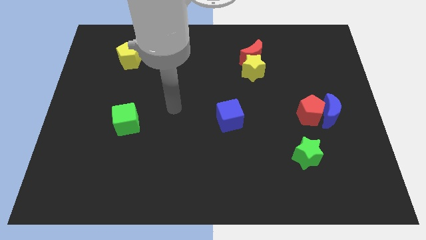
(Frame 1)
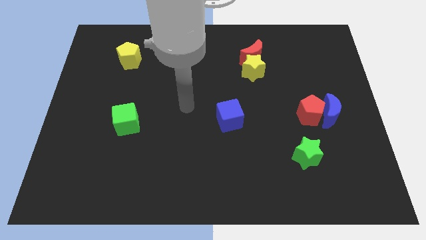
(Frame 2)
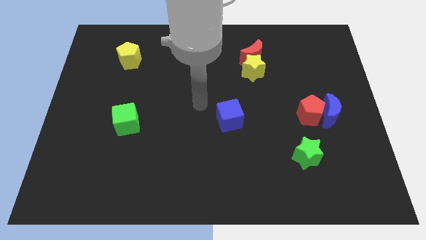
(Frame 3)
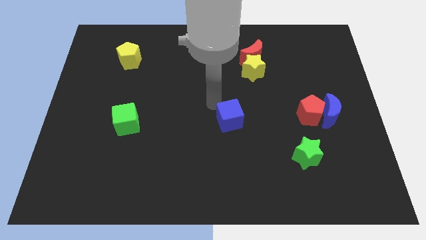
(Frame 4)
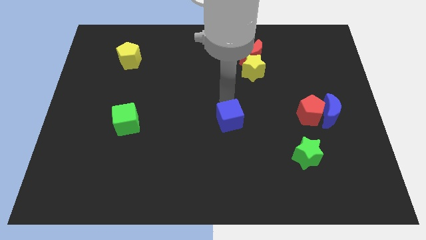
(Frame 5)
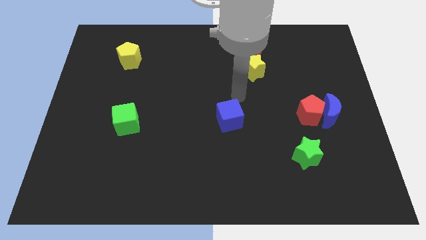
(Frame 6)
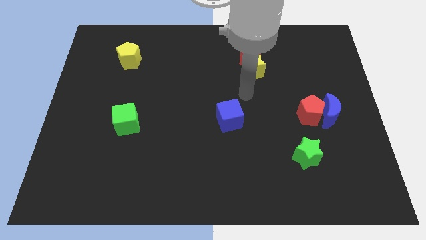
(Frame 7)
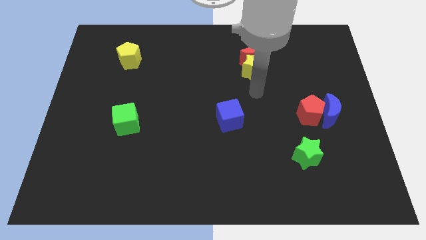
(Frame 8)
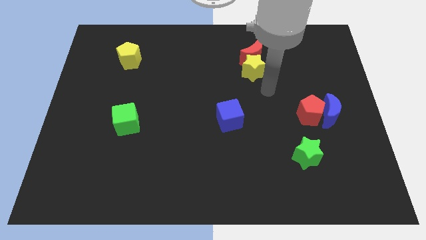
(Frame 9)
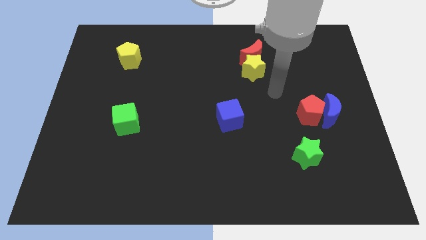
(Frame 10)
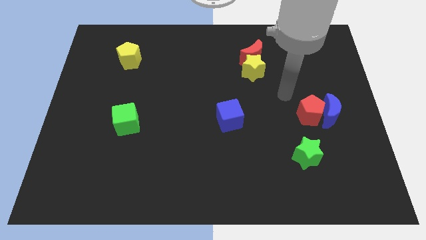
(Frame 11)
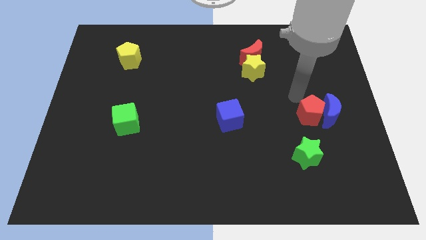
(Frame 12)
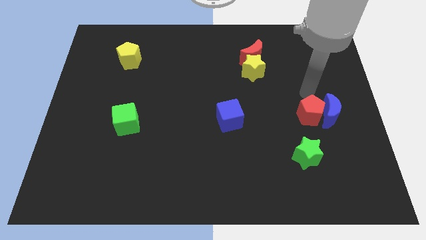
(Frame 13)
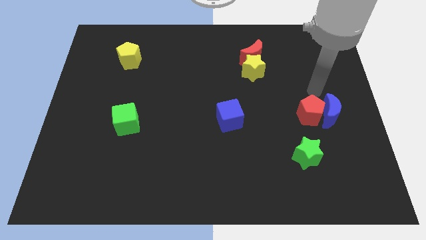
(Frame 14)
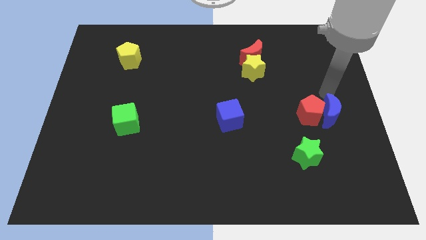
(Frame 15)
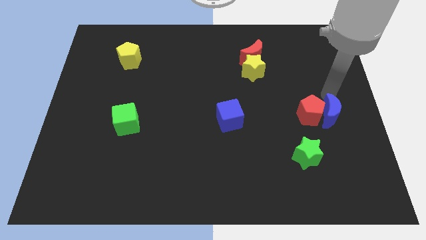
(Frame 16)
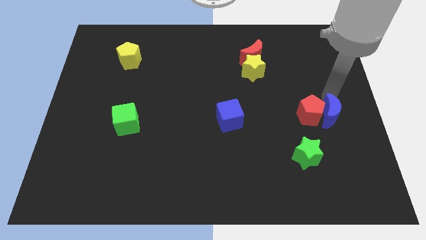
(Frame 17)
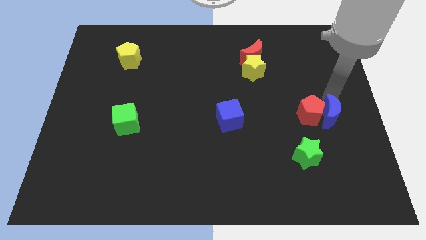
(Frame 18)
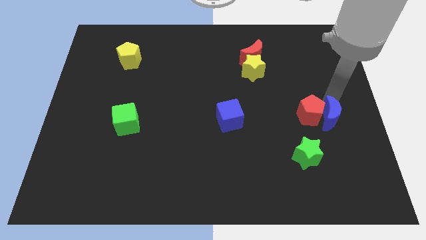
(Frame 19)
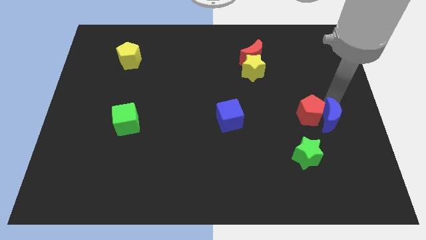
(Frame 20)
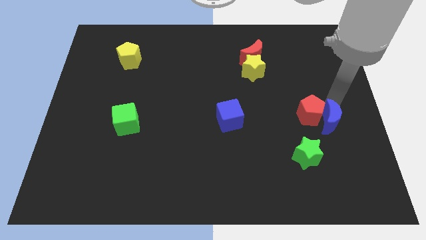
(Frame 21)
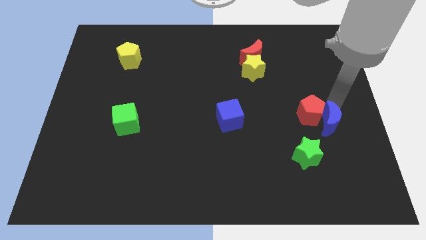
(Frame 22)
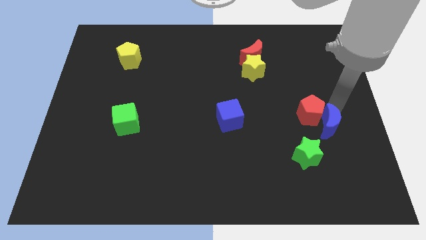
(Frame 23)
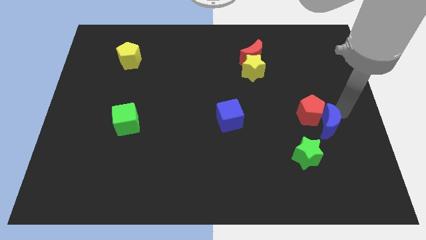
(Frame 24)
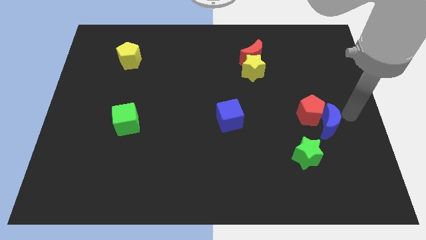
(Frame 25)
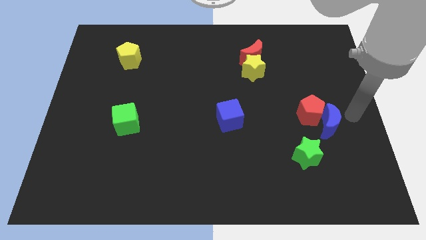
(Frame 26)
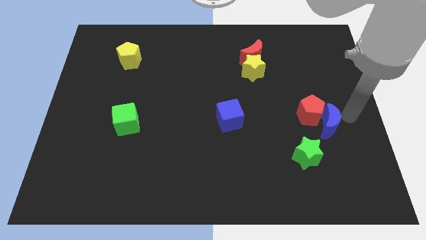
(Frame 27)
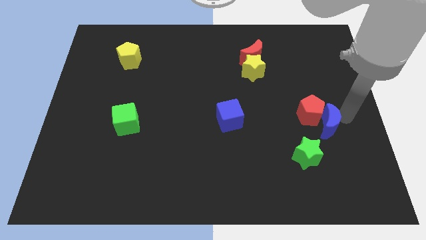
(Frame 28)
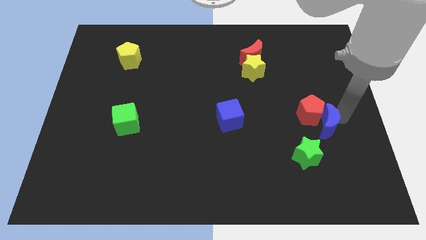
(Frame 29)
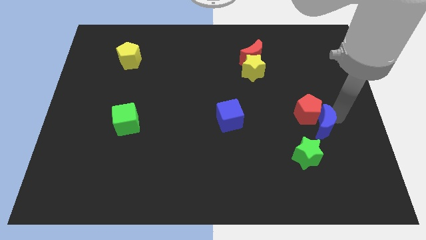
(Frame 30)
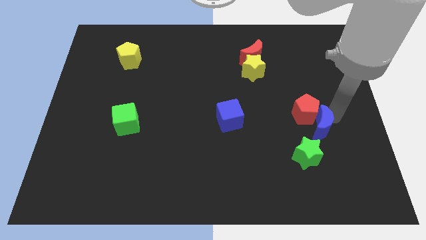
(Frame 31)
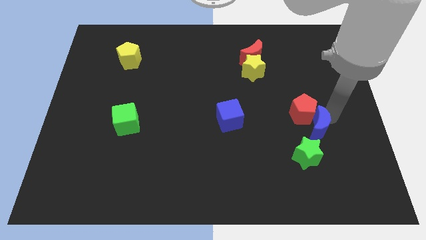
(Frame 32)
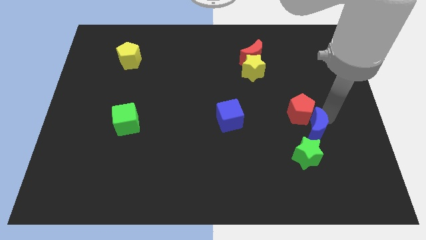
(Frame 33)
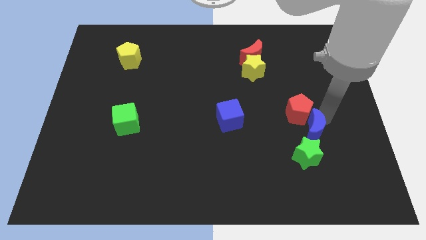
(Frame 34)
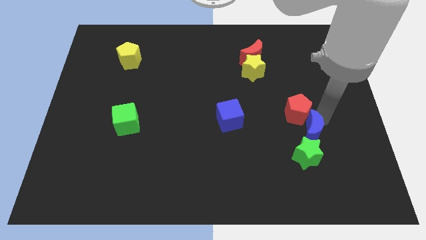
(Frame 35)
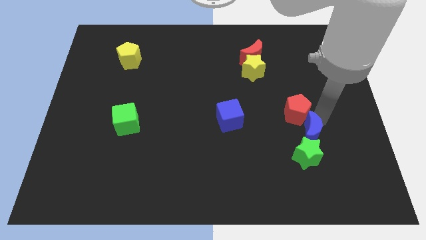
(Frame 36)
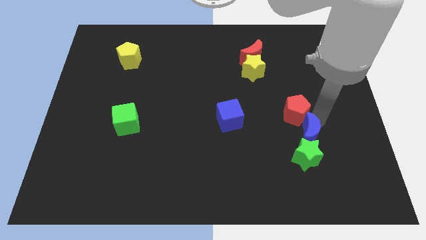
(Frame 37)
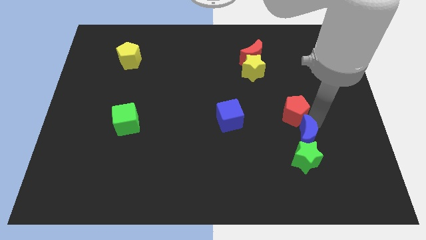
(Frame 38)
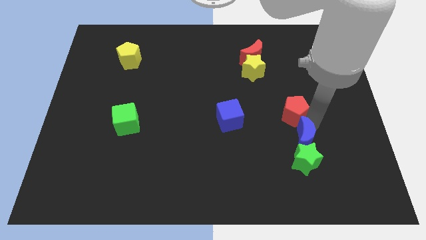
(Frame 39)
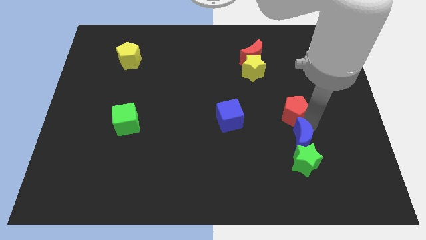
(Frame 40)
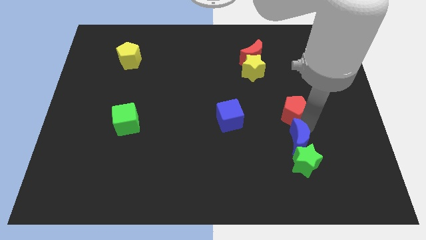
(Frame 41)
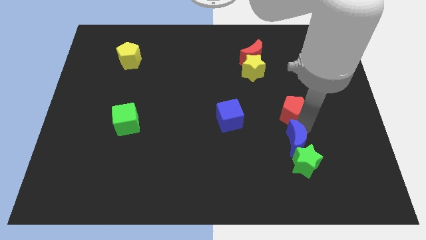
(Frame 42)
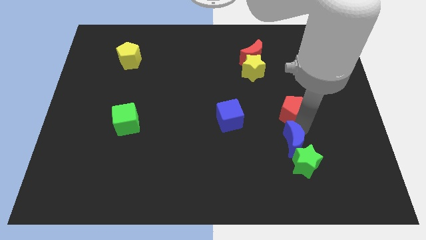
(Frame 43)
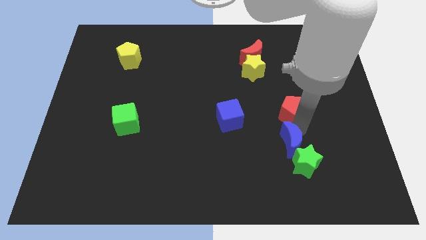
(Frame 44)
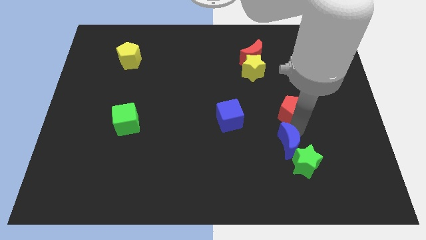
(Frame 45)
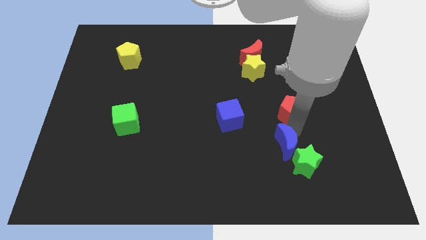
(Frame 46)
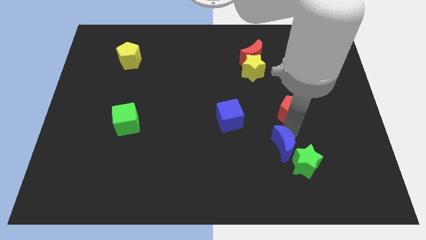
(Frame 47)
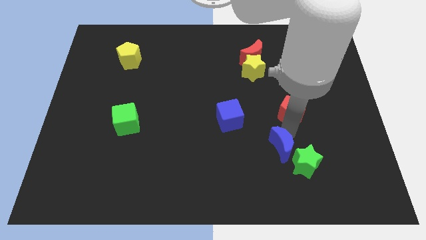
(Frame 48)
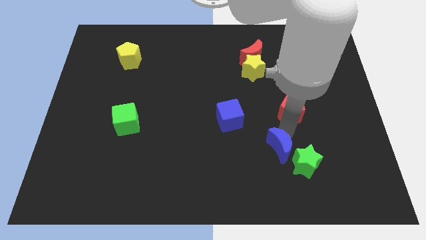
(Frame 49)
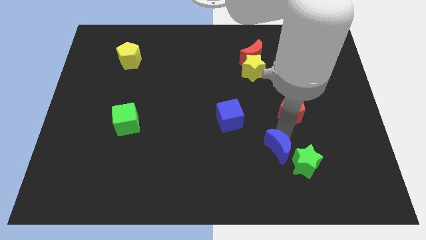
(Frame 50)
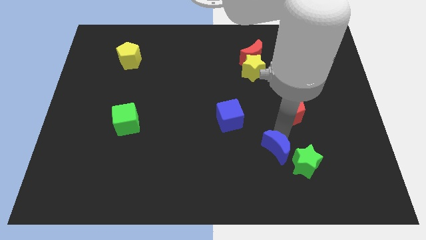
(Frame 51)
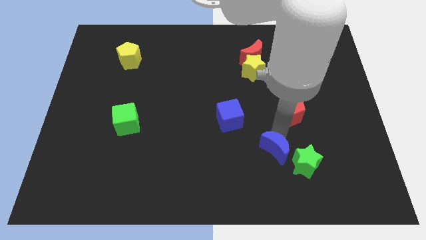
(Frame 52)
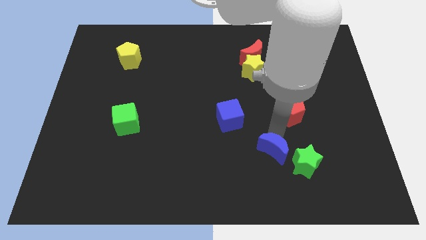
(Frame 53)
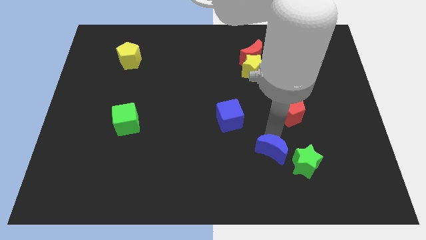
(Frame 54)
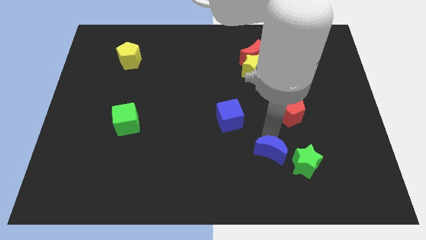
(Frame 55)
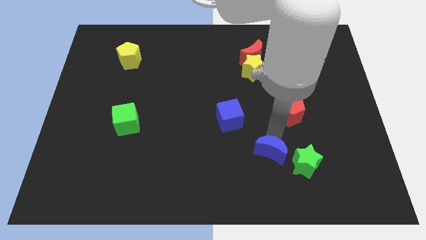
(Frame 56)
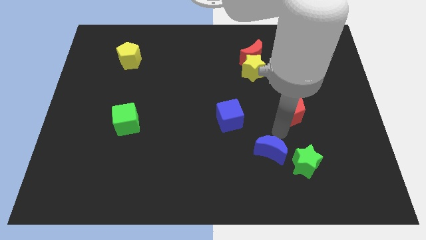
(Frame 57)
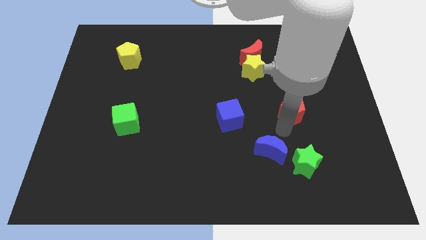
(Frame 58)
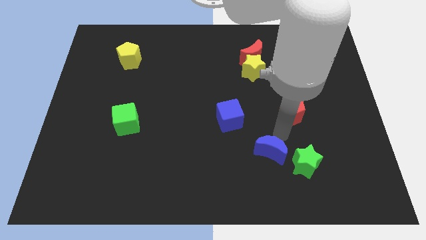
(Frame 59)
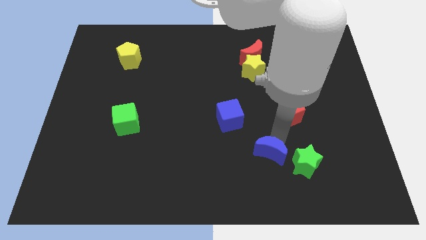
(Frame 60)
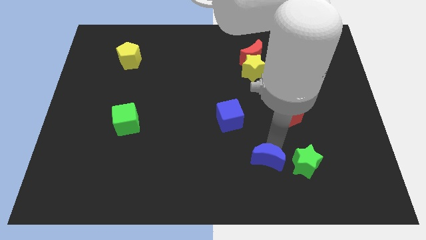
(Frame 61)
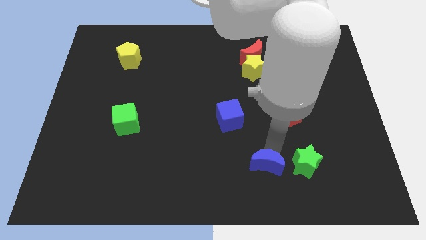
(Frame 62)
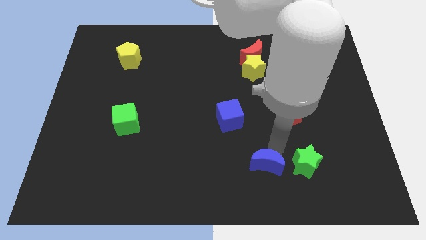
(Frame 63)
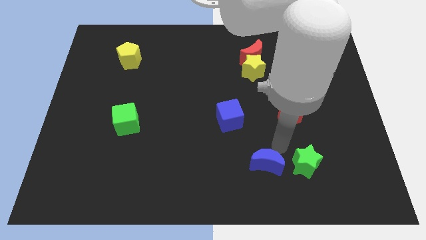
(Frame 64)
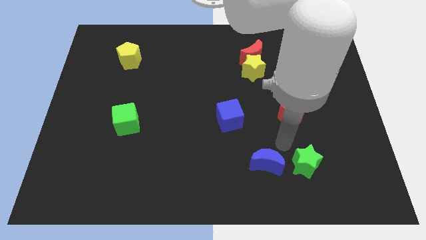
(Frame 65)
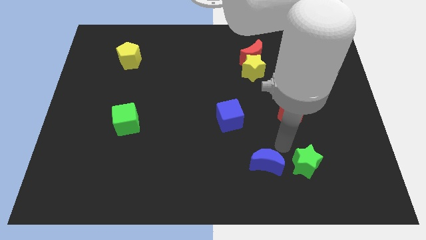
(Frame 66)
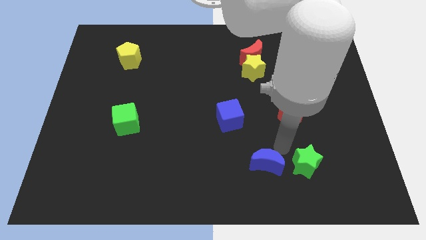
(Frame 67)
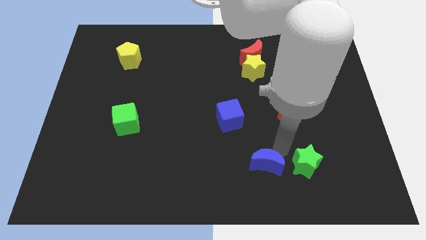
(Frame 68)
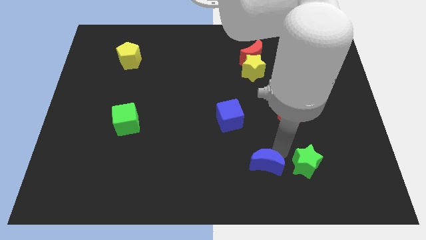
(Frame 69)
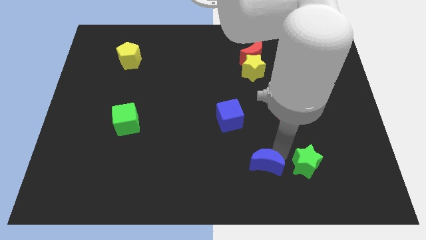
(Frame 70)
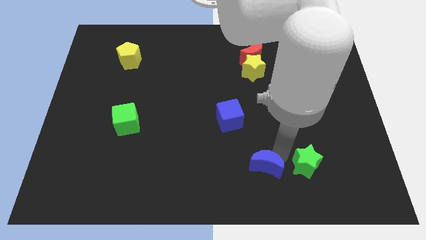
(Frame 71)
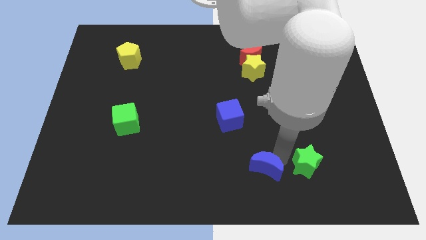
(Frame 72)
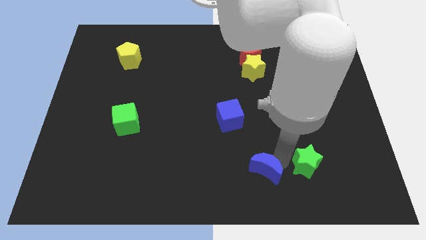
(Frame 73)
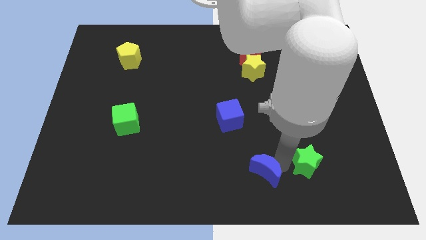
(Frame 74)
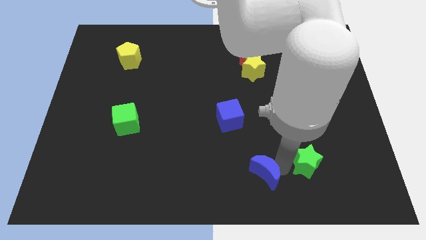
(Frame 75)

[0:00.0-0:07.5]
put the blue moon to the bottom side
